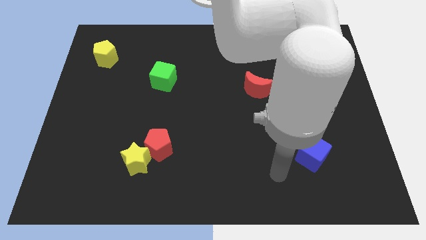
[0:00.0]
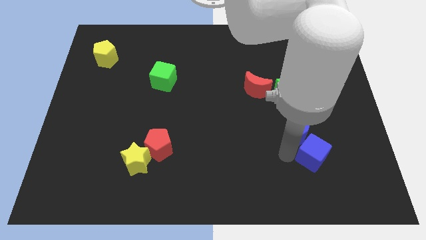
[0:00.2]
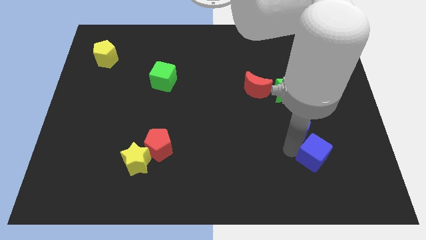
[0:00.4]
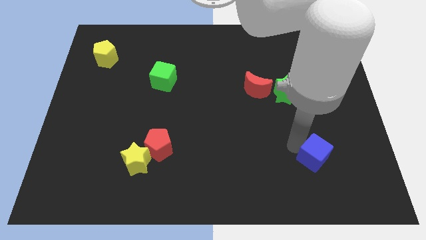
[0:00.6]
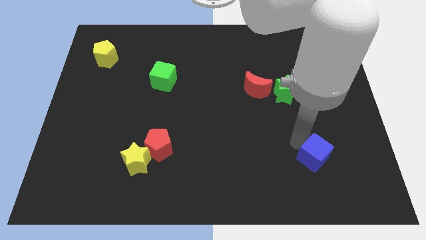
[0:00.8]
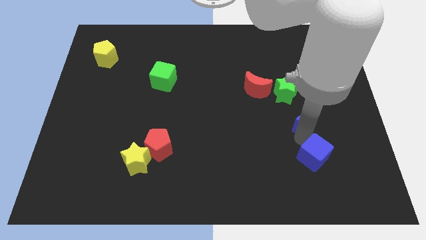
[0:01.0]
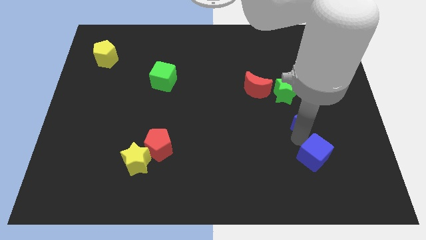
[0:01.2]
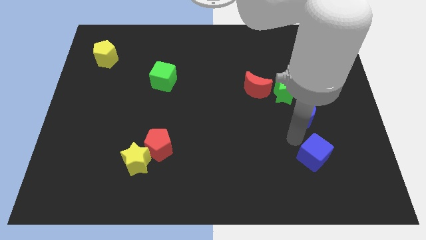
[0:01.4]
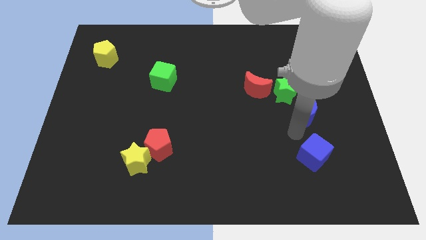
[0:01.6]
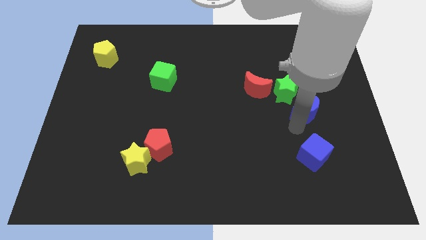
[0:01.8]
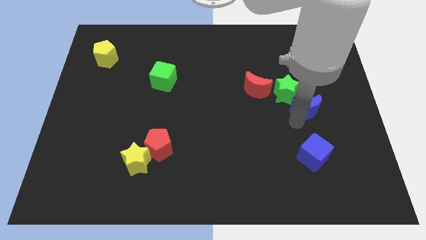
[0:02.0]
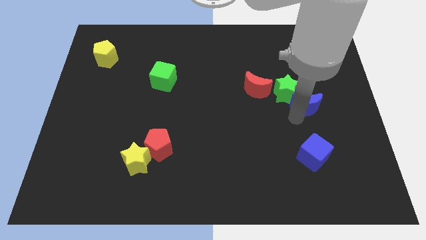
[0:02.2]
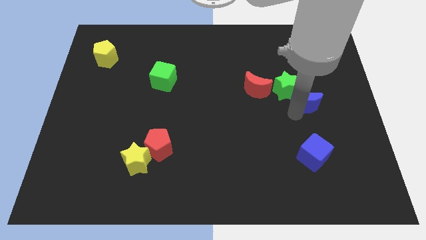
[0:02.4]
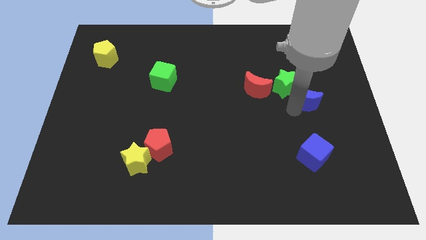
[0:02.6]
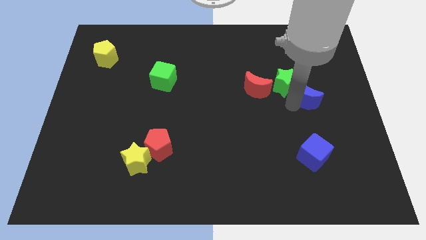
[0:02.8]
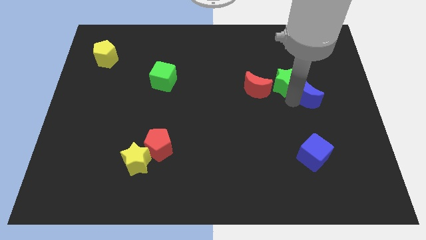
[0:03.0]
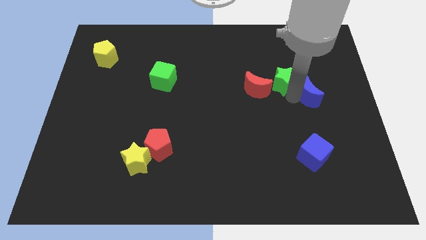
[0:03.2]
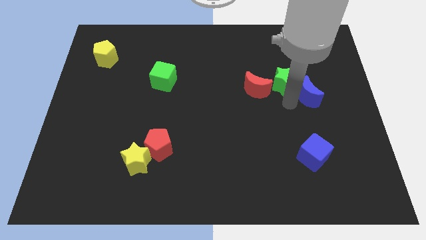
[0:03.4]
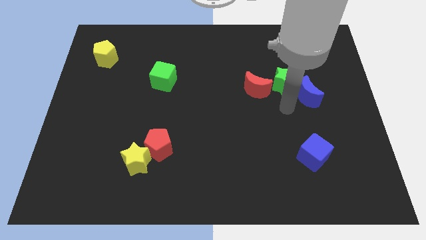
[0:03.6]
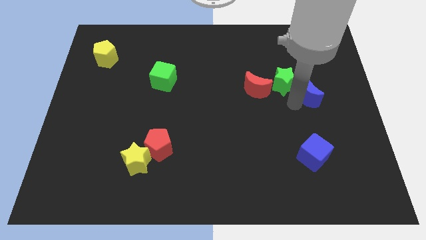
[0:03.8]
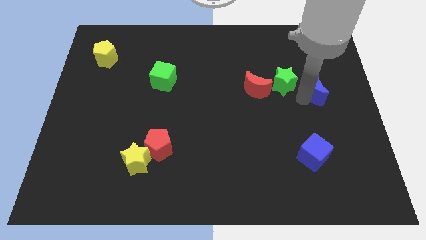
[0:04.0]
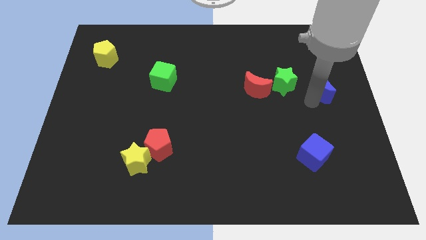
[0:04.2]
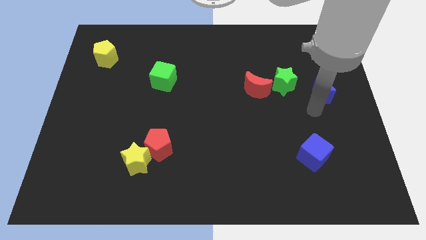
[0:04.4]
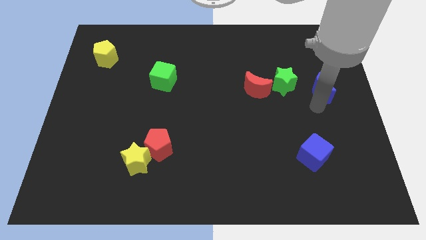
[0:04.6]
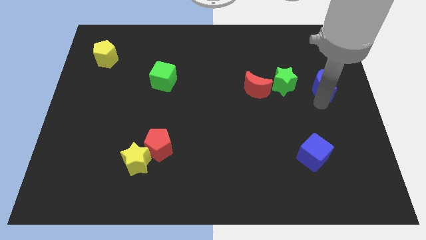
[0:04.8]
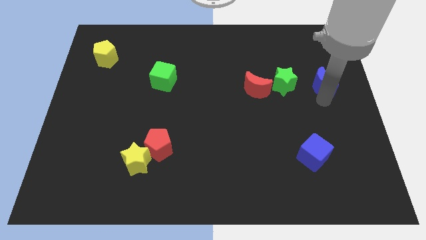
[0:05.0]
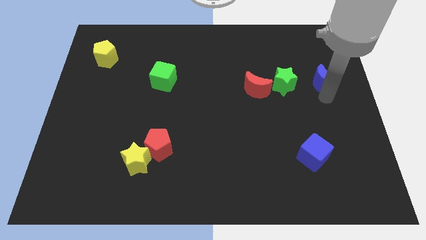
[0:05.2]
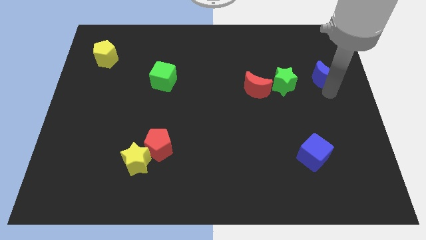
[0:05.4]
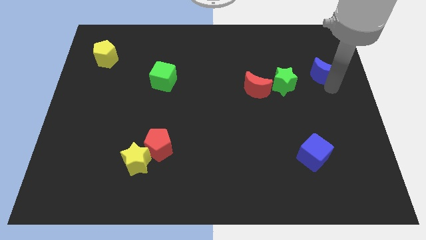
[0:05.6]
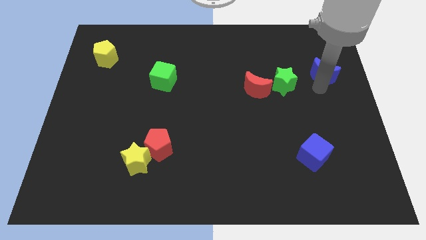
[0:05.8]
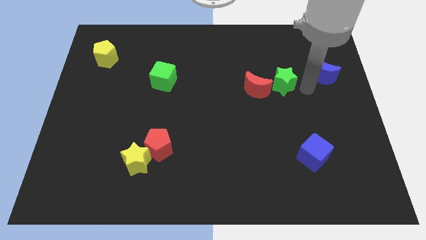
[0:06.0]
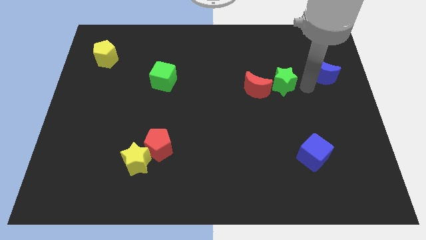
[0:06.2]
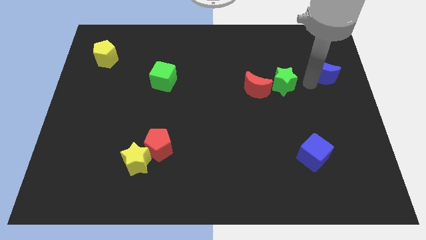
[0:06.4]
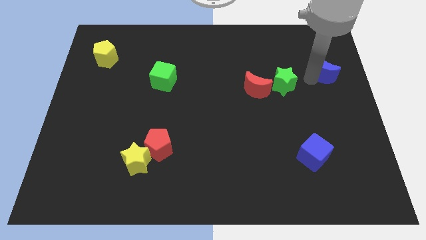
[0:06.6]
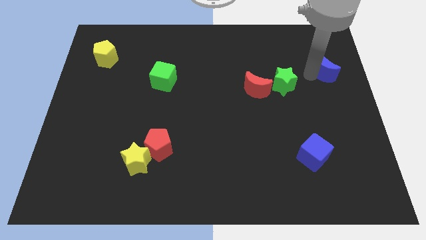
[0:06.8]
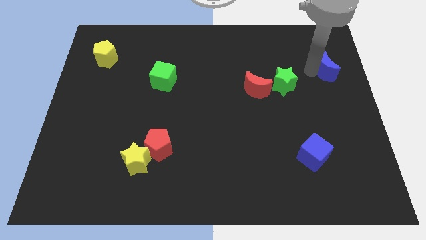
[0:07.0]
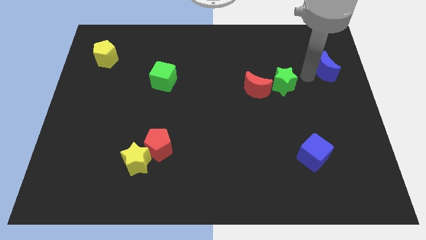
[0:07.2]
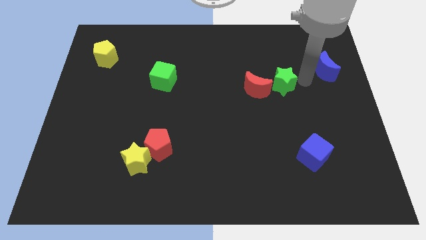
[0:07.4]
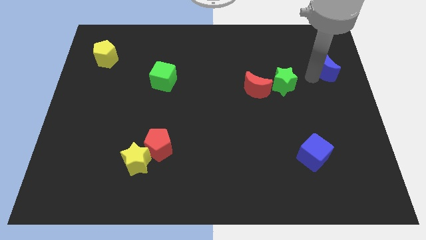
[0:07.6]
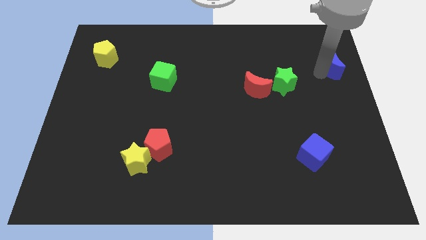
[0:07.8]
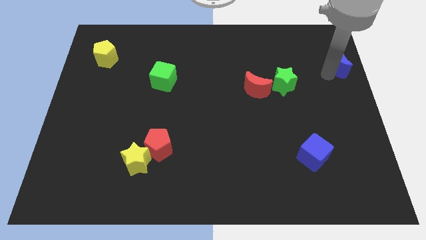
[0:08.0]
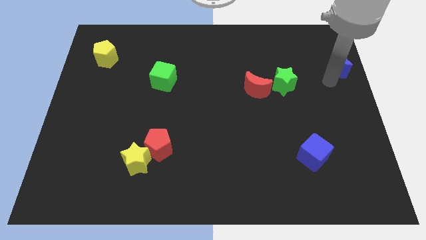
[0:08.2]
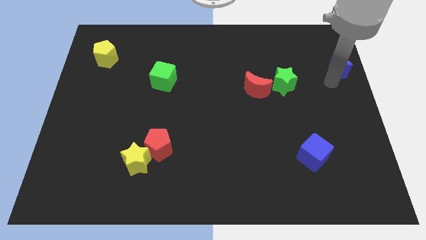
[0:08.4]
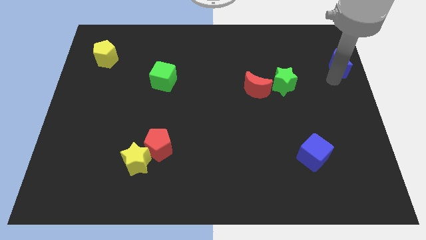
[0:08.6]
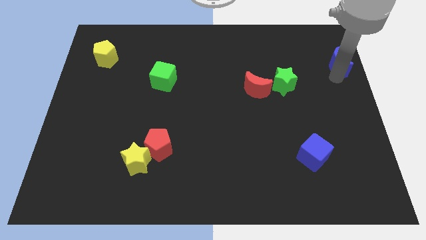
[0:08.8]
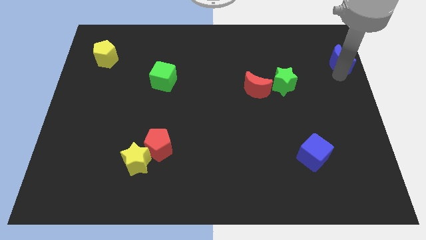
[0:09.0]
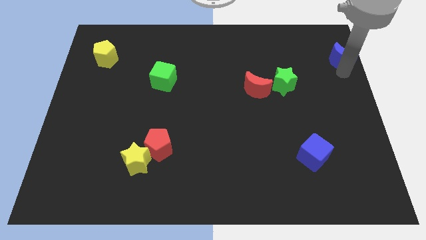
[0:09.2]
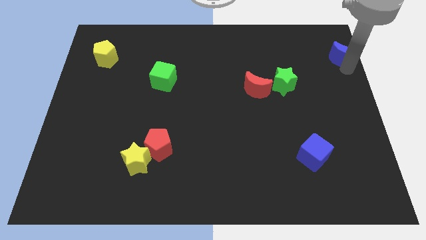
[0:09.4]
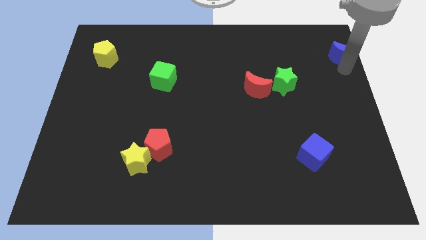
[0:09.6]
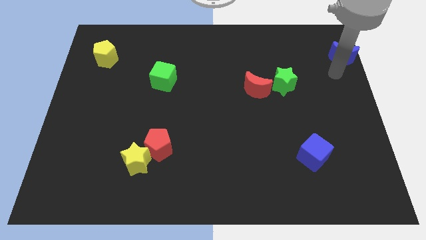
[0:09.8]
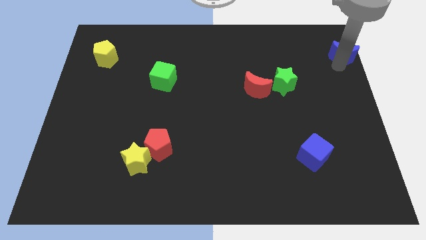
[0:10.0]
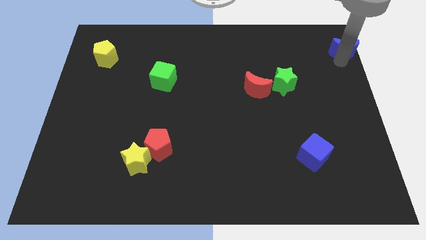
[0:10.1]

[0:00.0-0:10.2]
move the blue moon to the upper right corner

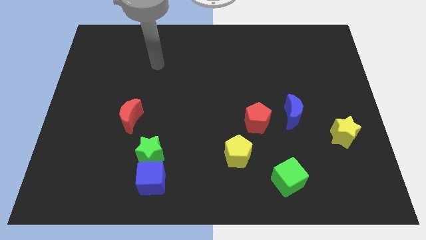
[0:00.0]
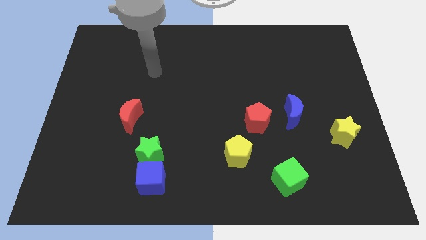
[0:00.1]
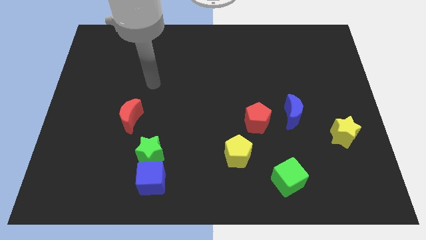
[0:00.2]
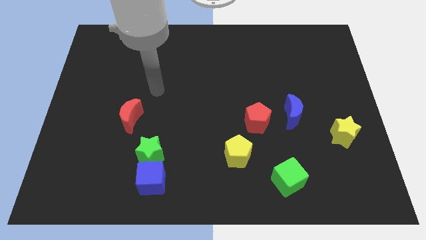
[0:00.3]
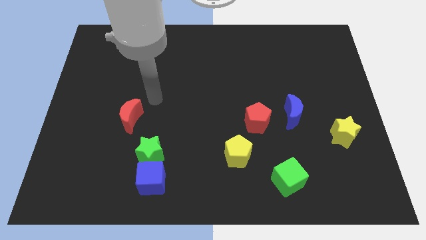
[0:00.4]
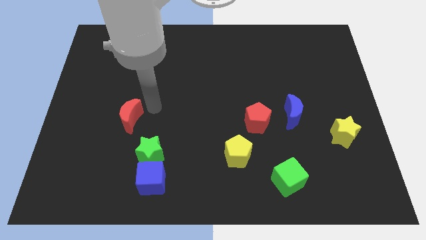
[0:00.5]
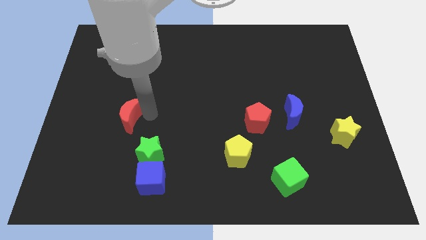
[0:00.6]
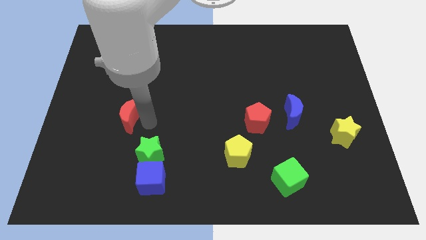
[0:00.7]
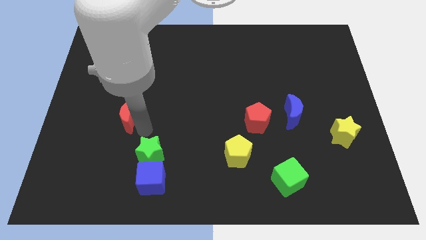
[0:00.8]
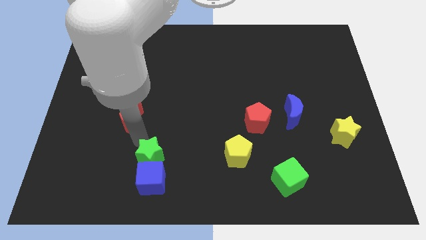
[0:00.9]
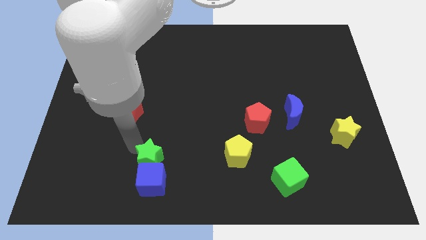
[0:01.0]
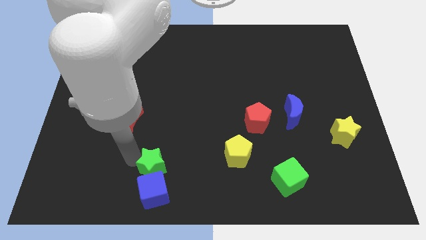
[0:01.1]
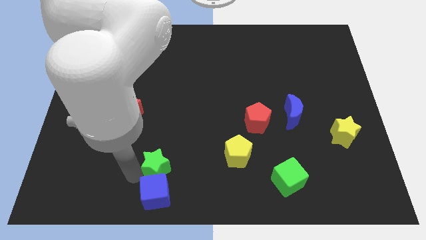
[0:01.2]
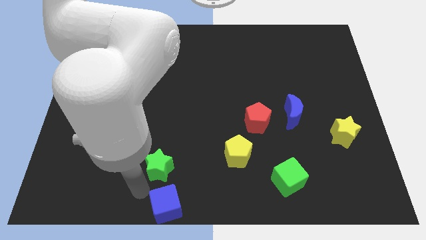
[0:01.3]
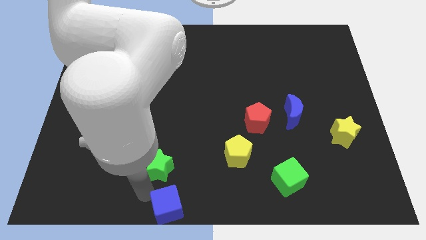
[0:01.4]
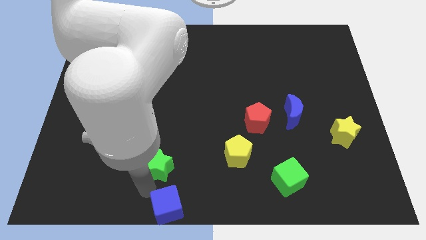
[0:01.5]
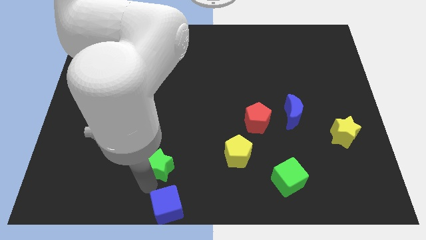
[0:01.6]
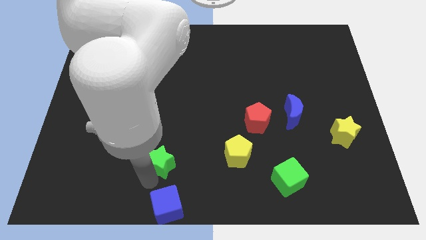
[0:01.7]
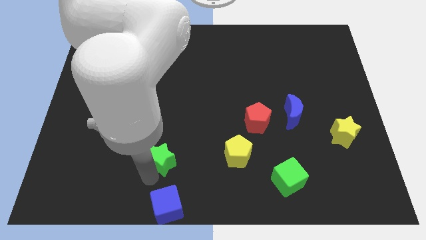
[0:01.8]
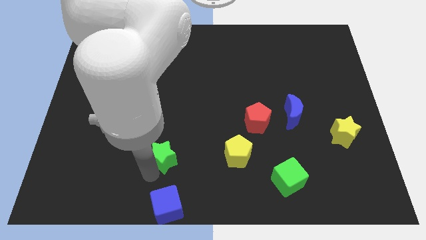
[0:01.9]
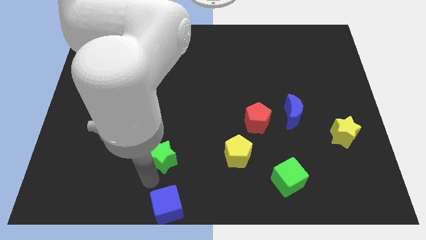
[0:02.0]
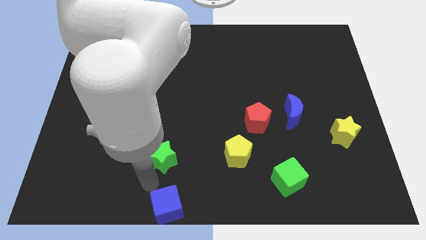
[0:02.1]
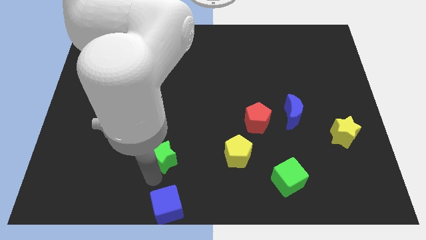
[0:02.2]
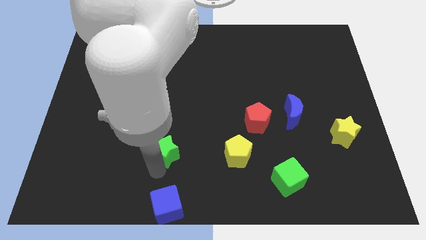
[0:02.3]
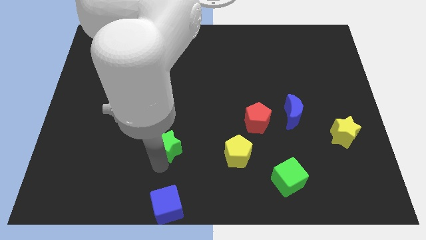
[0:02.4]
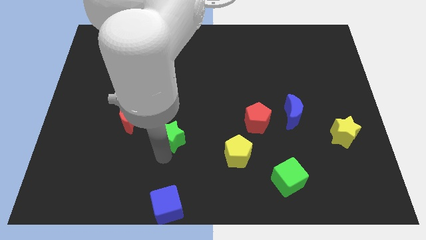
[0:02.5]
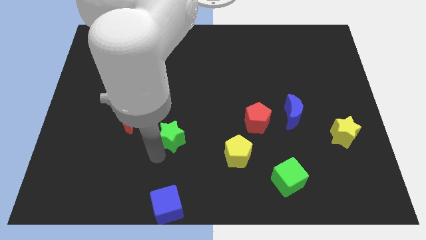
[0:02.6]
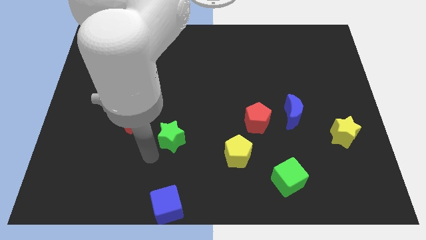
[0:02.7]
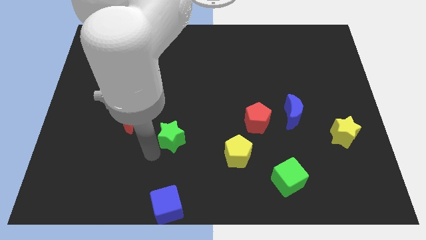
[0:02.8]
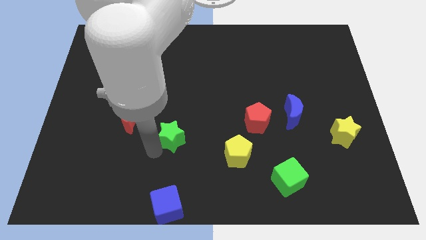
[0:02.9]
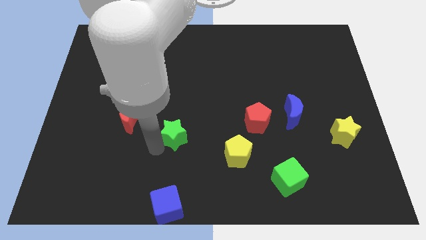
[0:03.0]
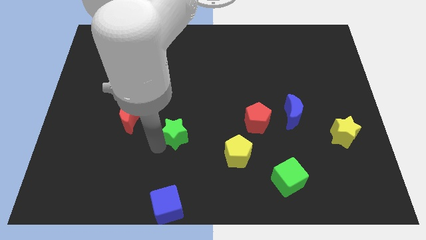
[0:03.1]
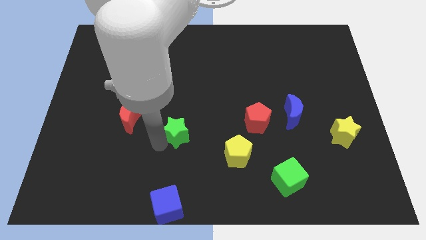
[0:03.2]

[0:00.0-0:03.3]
push the green star to the middle of the board
